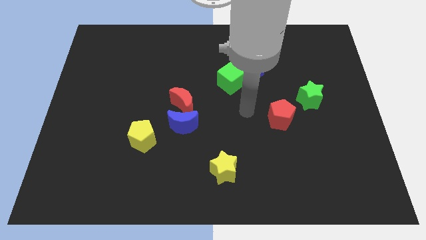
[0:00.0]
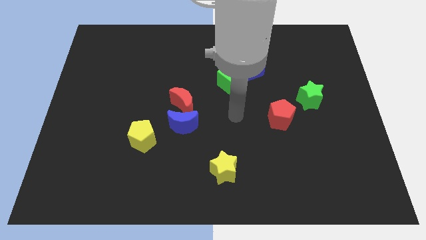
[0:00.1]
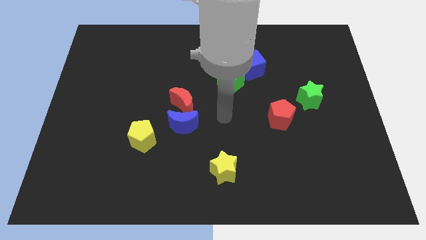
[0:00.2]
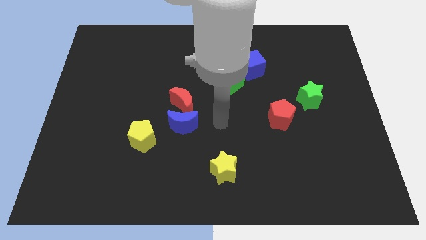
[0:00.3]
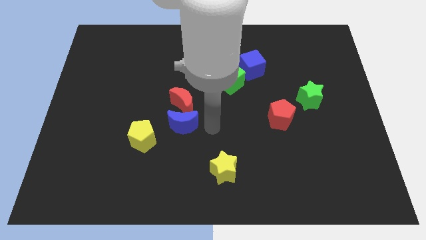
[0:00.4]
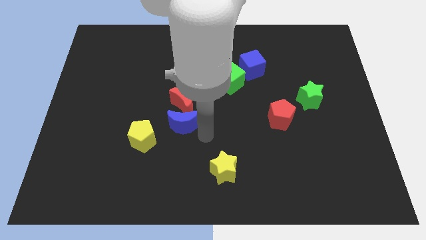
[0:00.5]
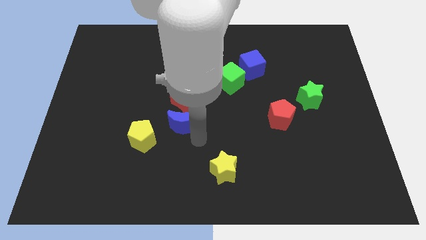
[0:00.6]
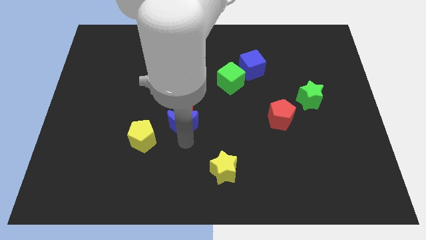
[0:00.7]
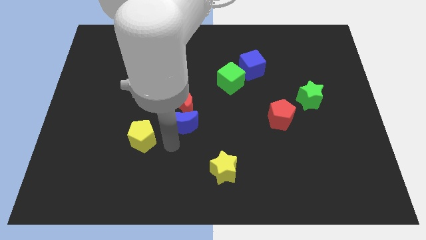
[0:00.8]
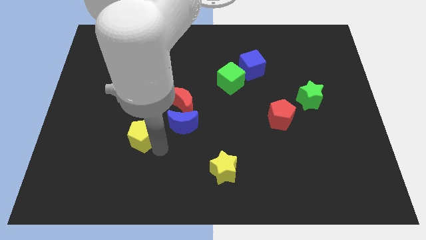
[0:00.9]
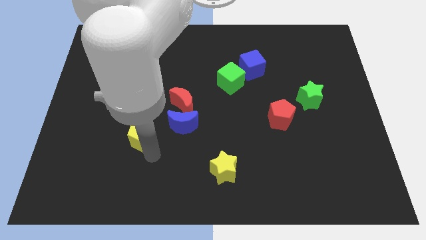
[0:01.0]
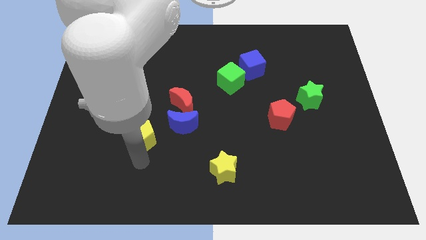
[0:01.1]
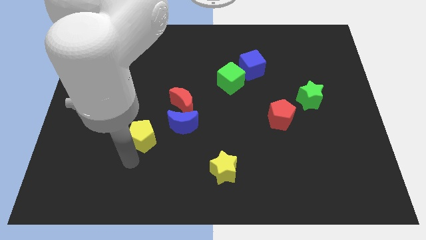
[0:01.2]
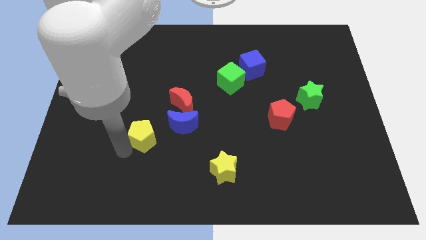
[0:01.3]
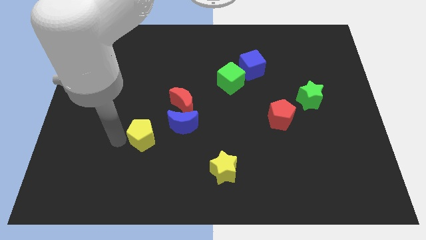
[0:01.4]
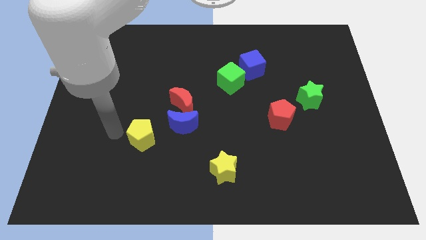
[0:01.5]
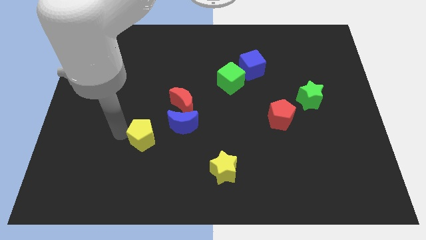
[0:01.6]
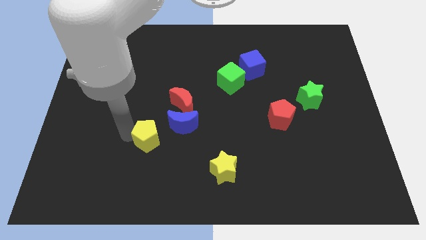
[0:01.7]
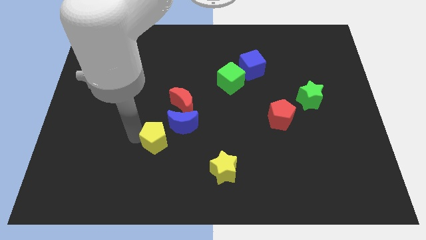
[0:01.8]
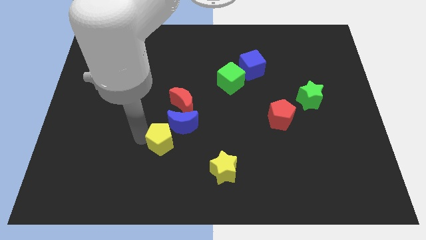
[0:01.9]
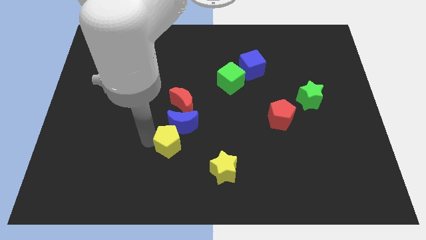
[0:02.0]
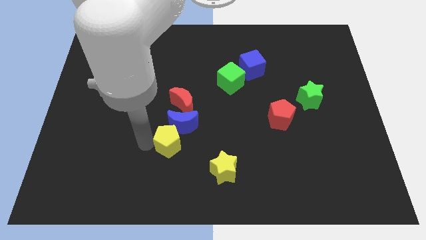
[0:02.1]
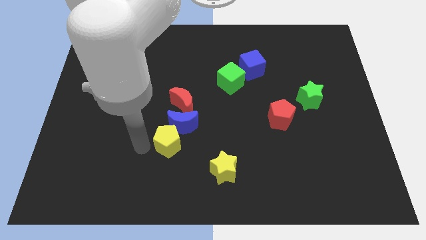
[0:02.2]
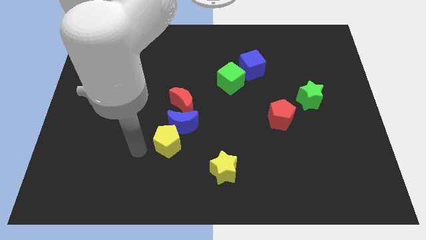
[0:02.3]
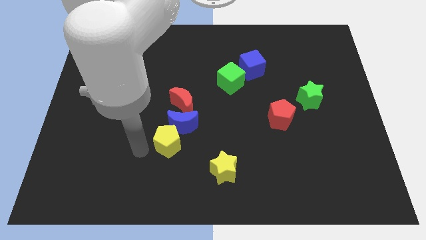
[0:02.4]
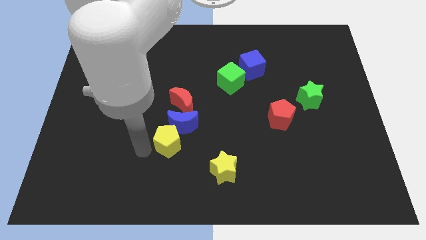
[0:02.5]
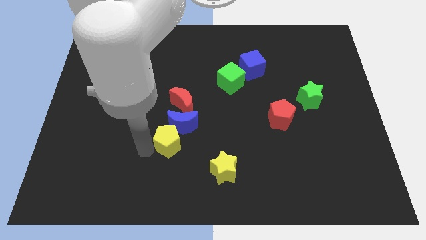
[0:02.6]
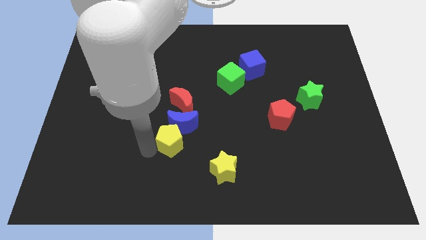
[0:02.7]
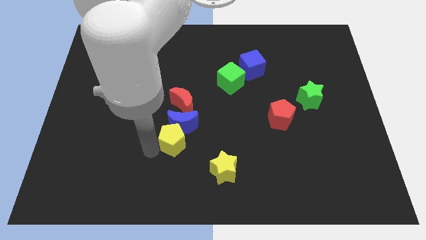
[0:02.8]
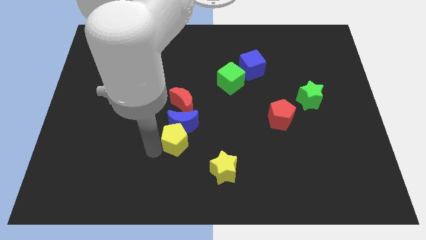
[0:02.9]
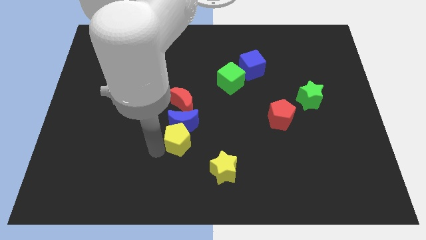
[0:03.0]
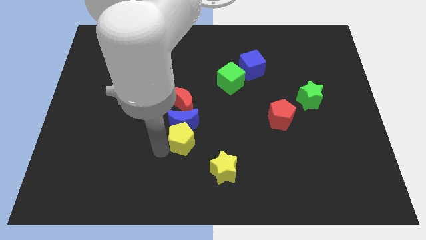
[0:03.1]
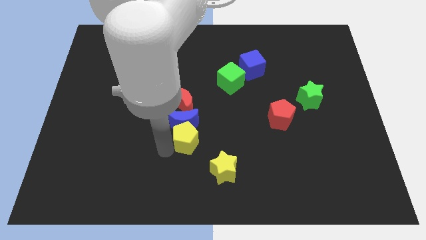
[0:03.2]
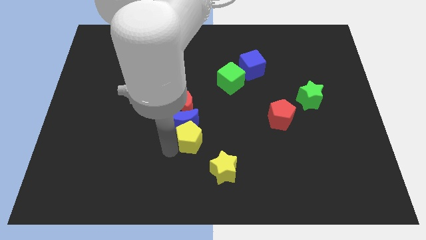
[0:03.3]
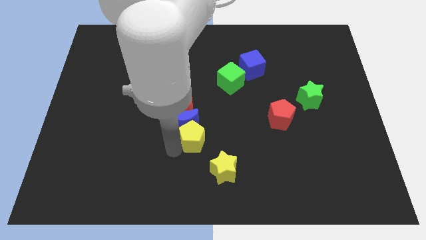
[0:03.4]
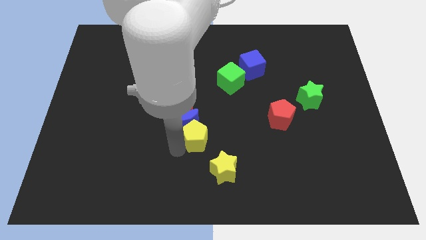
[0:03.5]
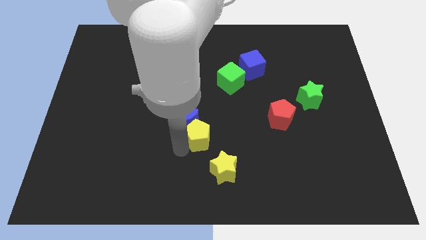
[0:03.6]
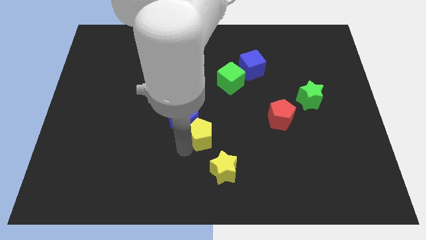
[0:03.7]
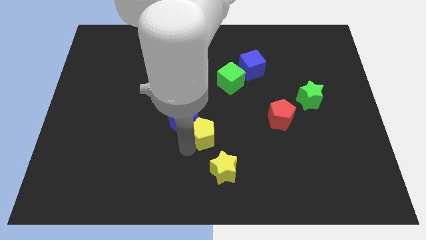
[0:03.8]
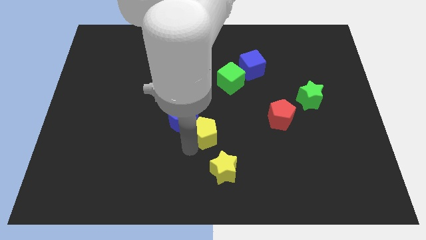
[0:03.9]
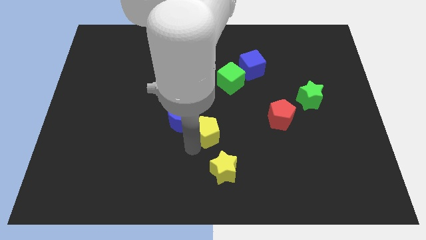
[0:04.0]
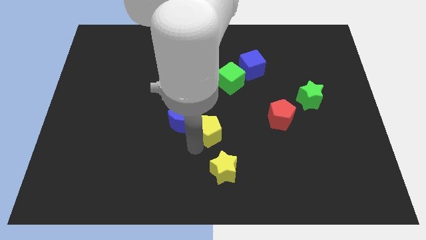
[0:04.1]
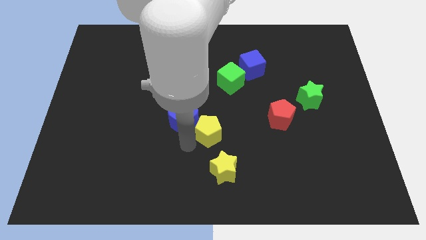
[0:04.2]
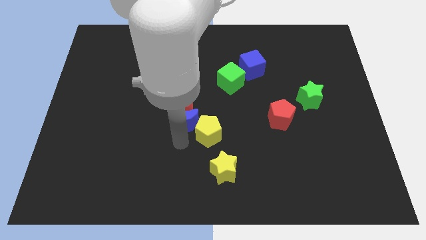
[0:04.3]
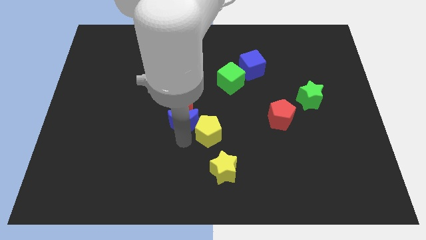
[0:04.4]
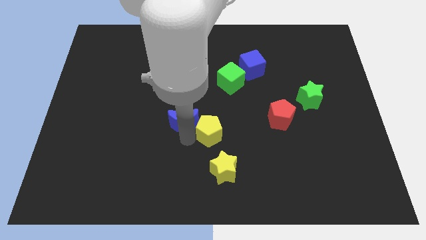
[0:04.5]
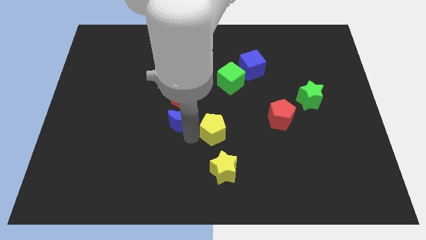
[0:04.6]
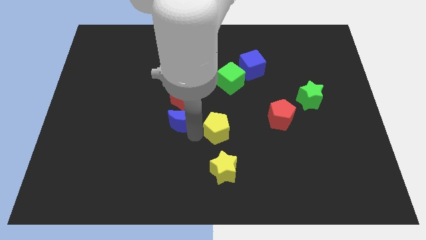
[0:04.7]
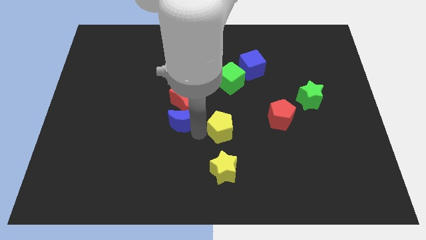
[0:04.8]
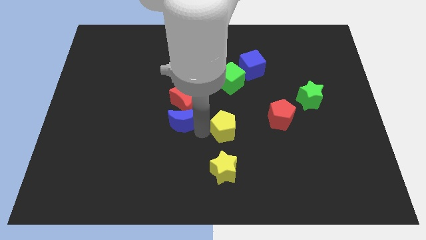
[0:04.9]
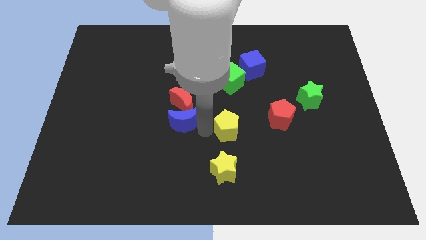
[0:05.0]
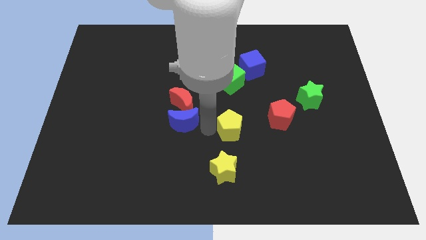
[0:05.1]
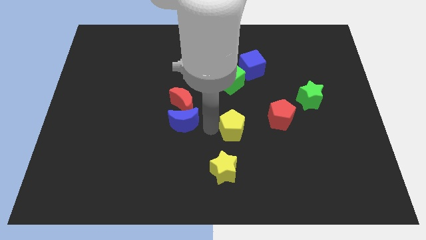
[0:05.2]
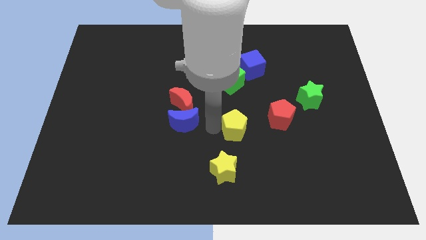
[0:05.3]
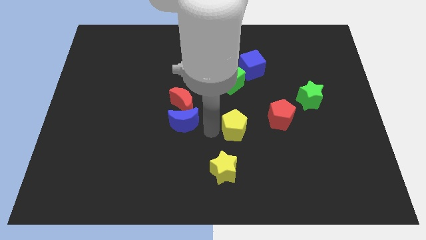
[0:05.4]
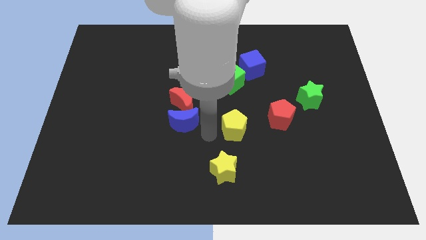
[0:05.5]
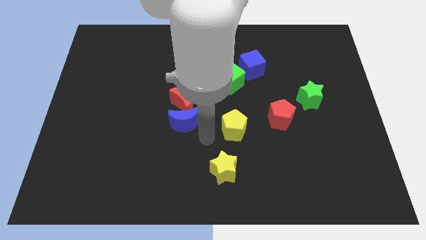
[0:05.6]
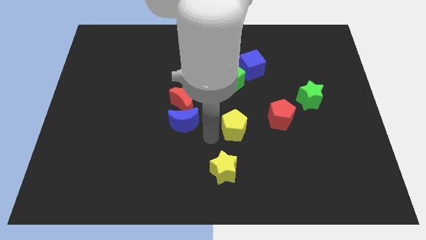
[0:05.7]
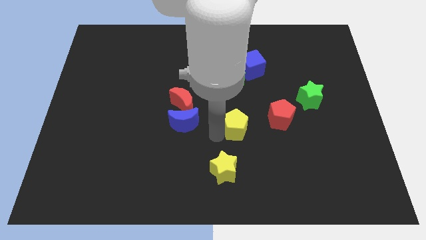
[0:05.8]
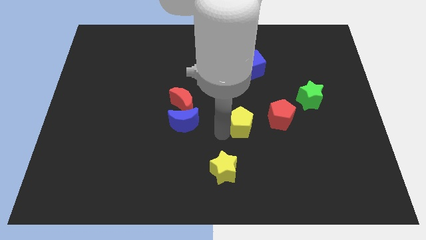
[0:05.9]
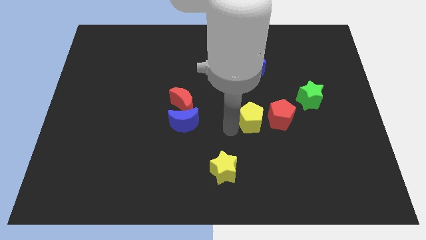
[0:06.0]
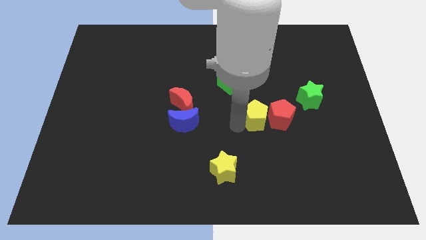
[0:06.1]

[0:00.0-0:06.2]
slide the yellow pentagon towards the red pentagon

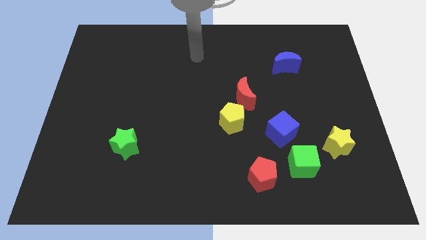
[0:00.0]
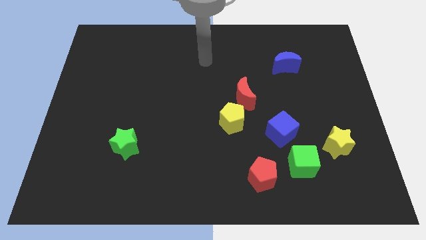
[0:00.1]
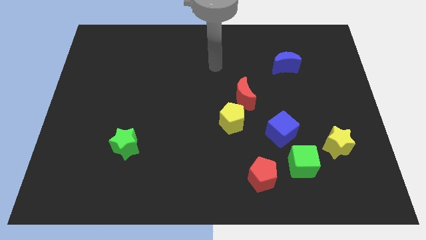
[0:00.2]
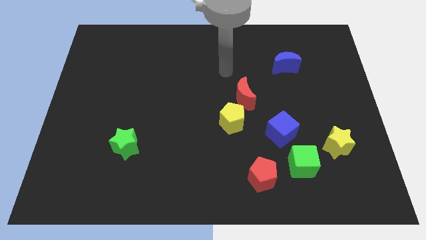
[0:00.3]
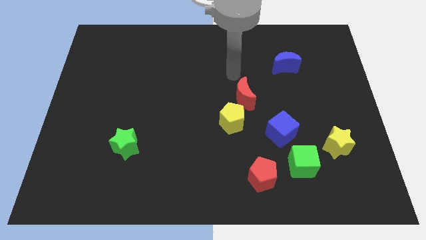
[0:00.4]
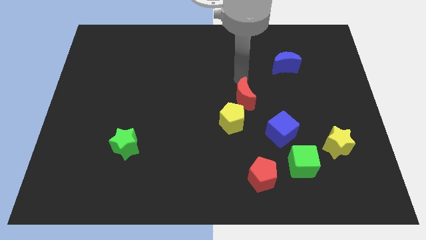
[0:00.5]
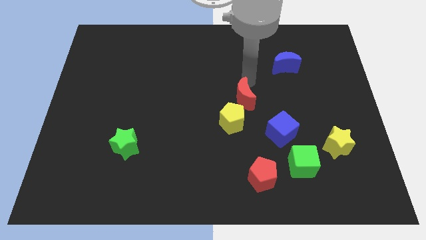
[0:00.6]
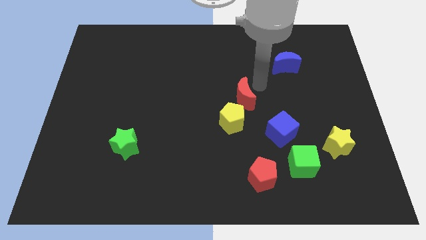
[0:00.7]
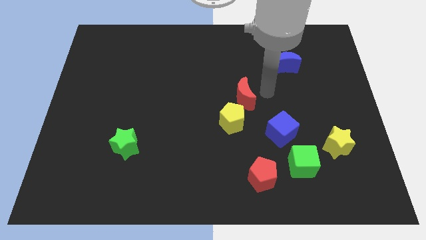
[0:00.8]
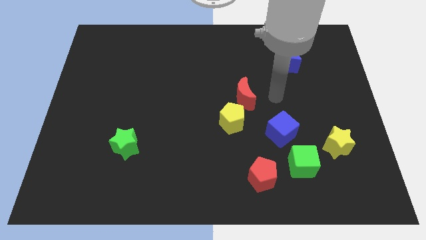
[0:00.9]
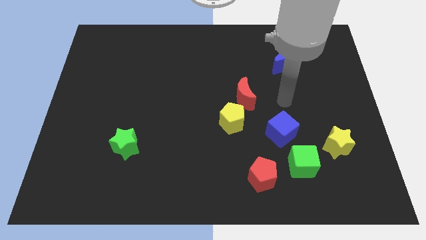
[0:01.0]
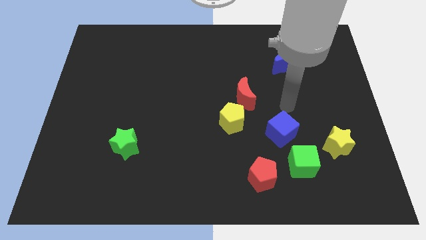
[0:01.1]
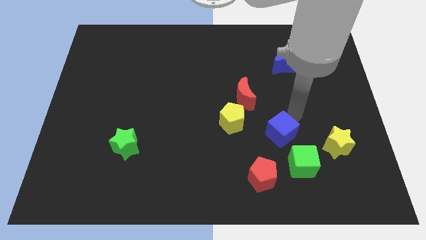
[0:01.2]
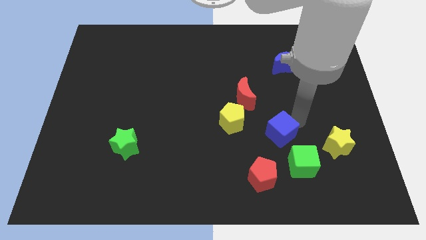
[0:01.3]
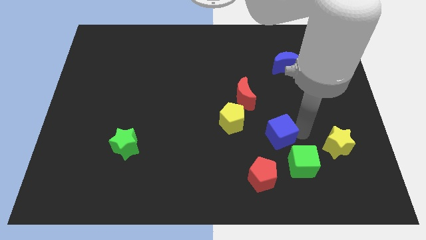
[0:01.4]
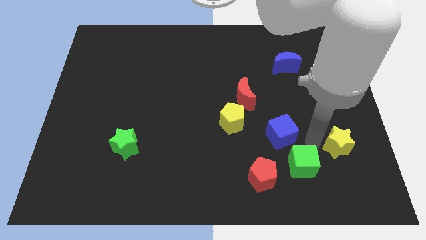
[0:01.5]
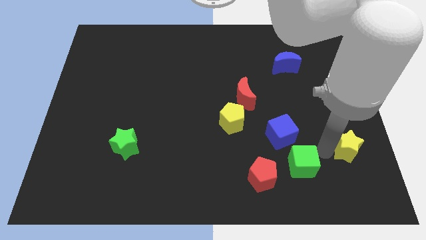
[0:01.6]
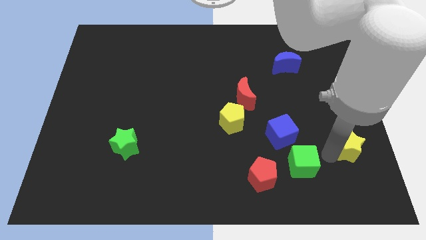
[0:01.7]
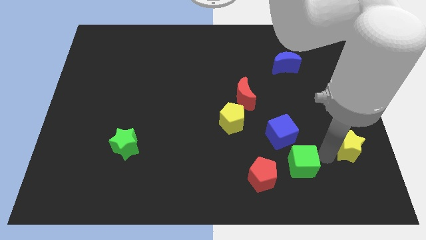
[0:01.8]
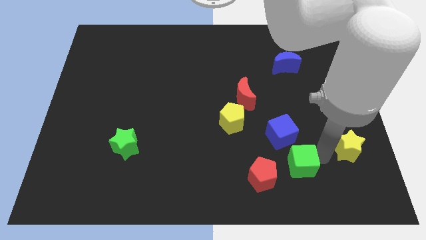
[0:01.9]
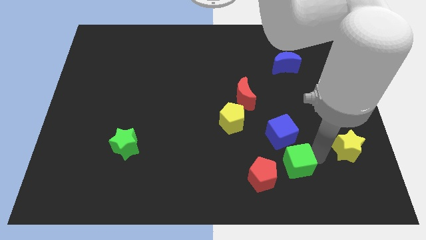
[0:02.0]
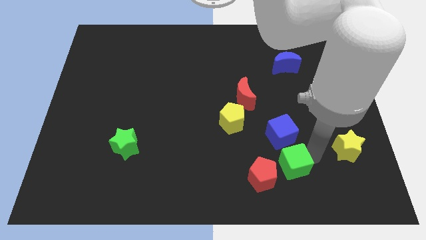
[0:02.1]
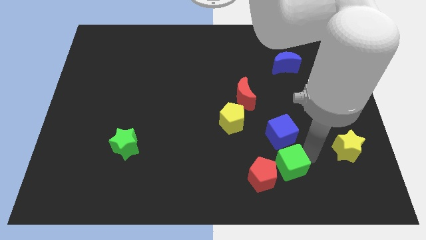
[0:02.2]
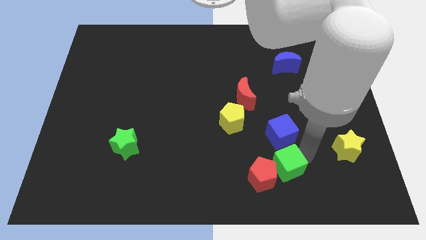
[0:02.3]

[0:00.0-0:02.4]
slide the green cube towards the red pentagon
